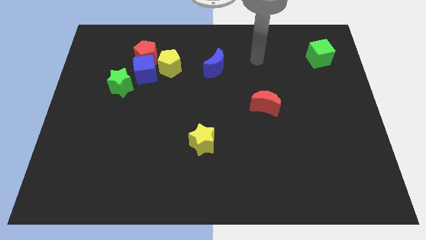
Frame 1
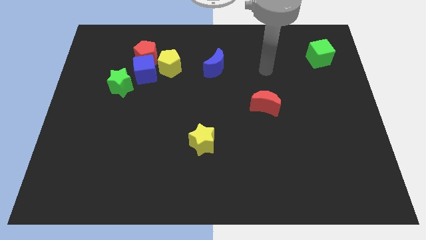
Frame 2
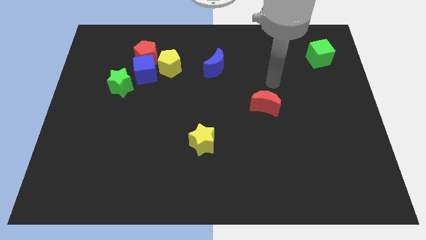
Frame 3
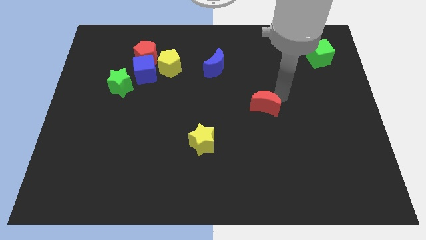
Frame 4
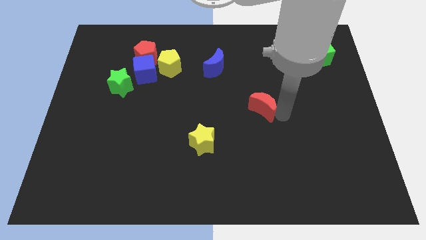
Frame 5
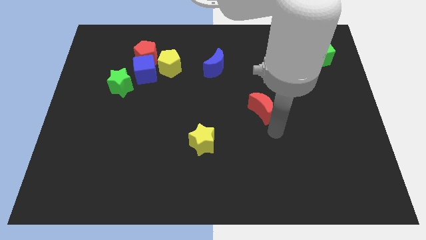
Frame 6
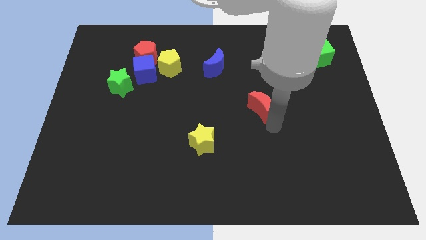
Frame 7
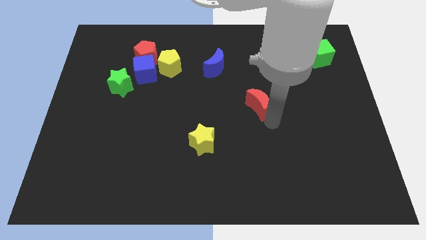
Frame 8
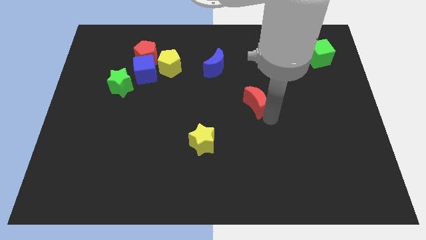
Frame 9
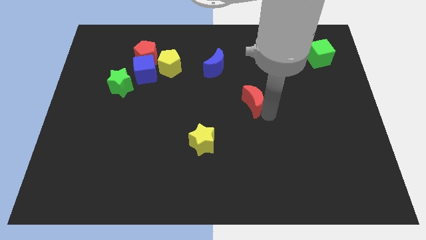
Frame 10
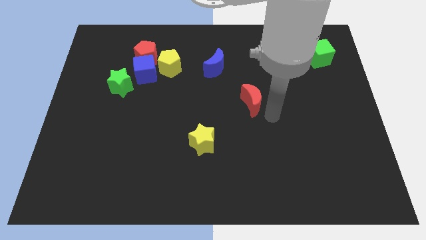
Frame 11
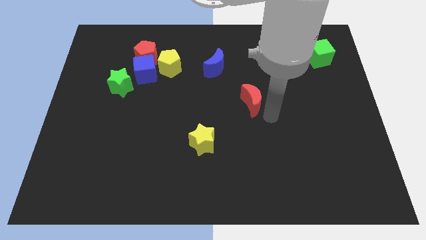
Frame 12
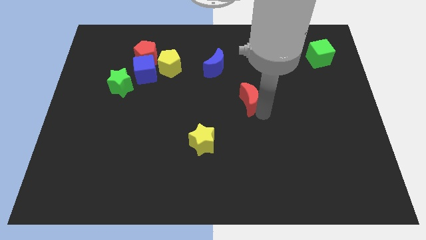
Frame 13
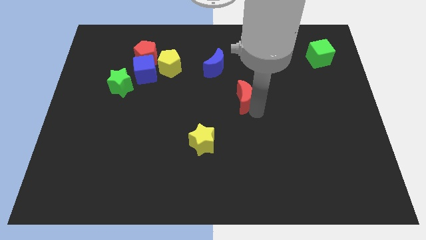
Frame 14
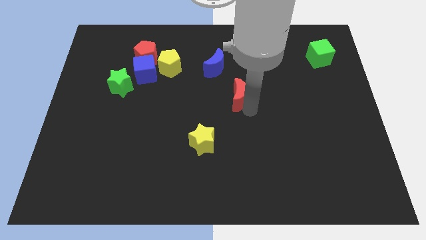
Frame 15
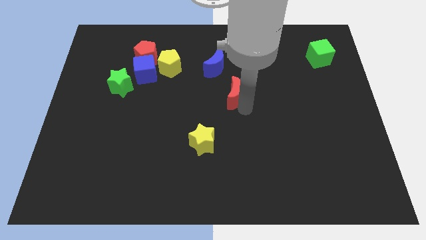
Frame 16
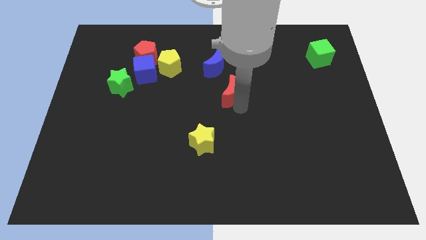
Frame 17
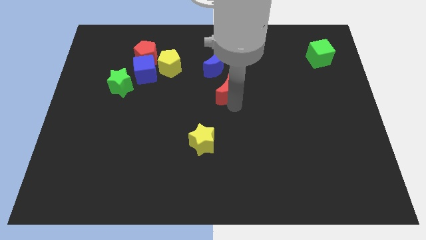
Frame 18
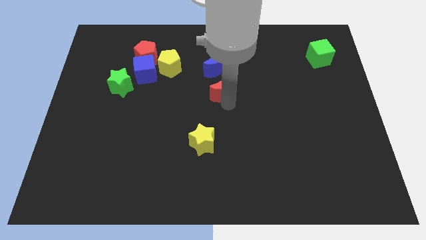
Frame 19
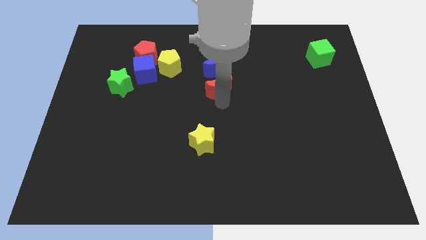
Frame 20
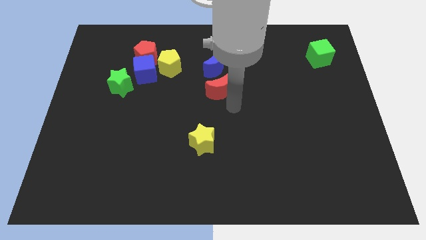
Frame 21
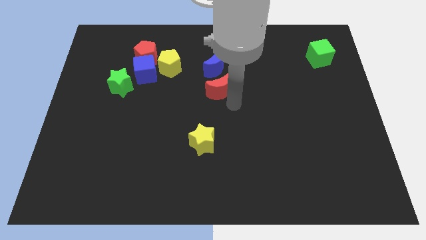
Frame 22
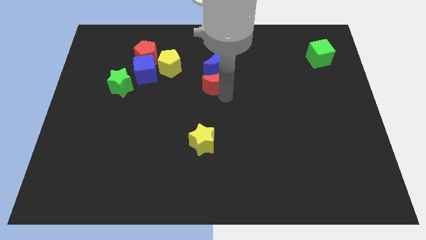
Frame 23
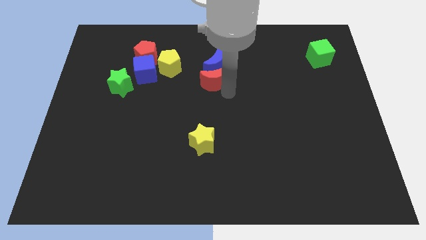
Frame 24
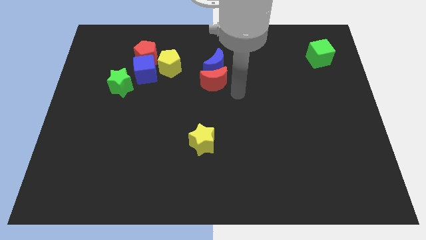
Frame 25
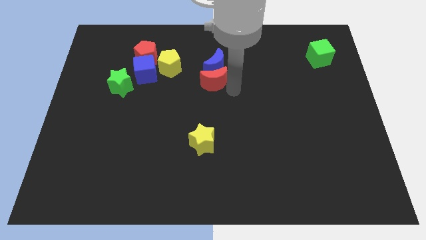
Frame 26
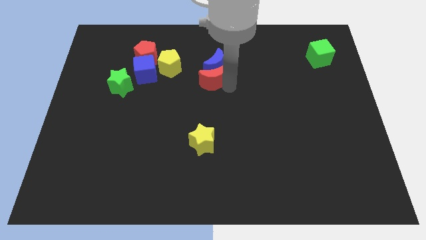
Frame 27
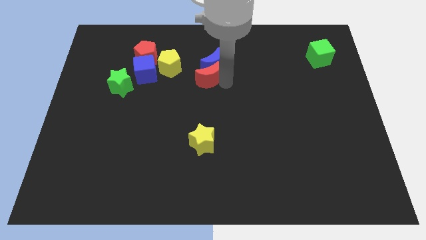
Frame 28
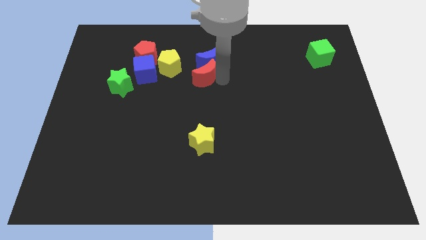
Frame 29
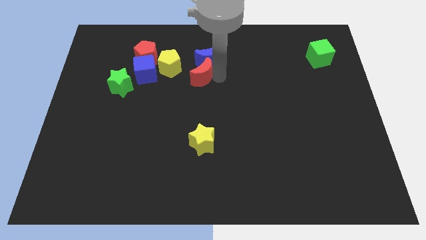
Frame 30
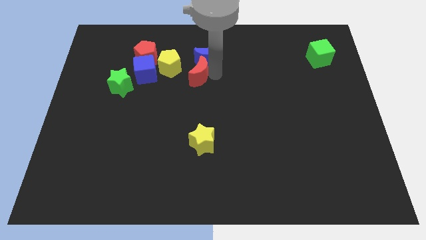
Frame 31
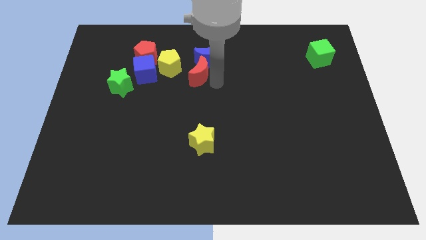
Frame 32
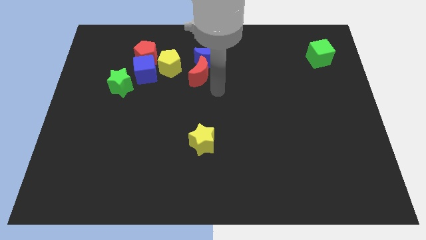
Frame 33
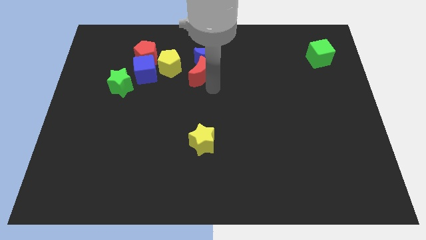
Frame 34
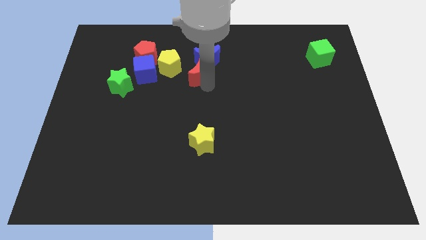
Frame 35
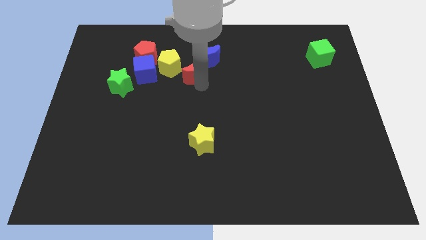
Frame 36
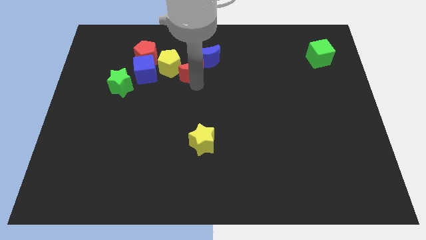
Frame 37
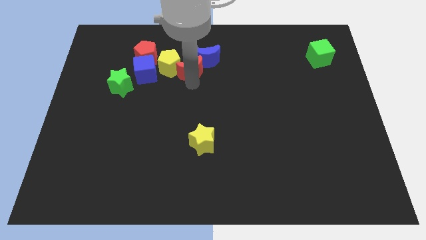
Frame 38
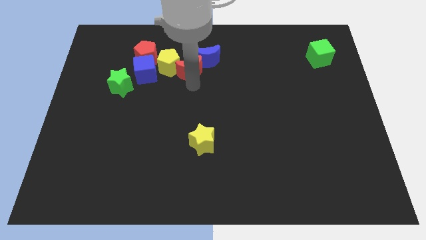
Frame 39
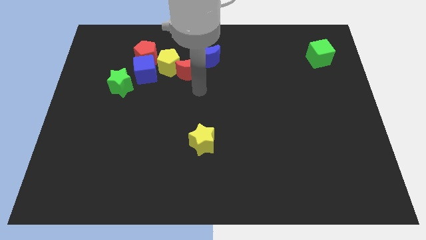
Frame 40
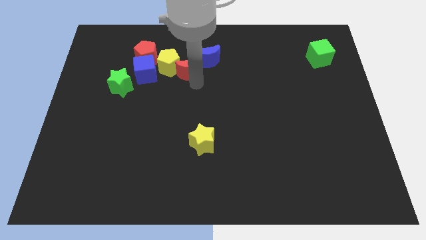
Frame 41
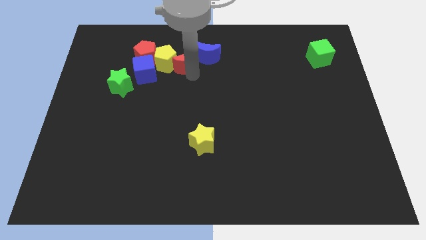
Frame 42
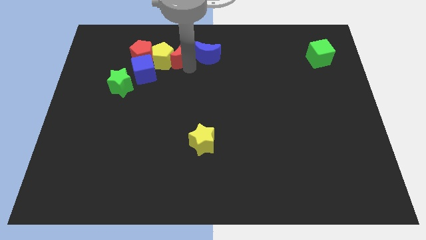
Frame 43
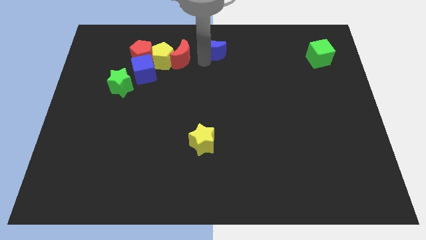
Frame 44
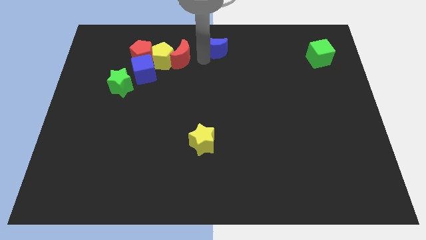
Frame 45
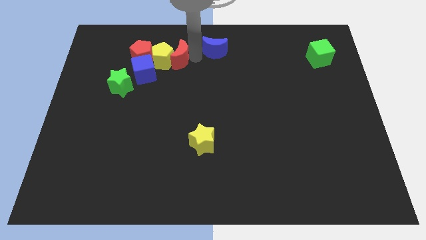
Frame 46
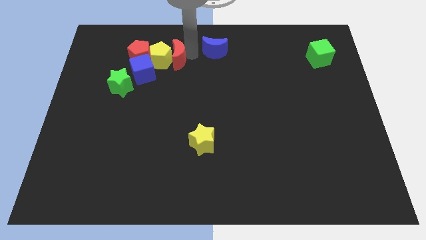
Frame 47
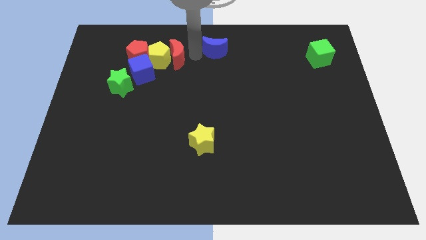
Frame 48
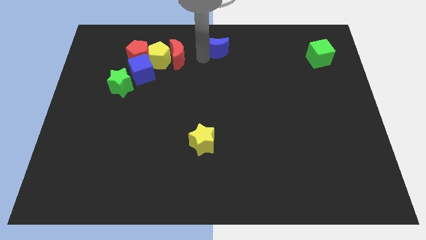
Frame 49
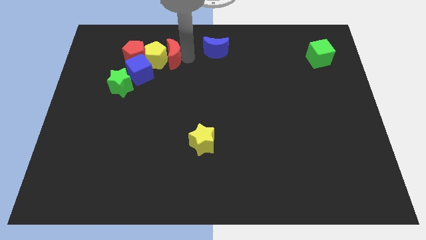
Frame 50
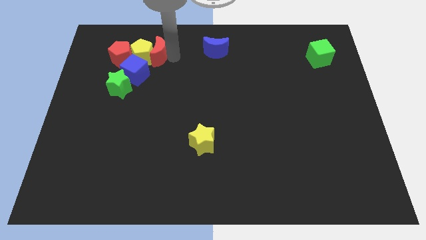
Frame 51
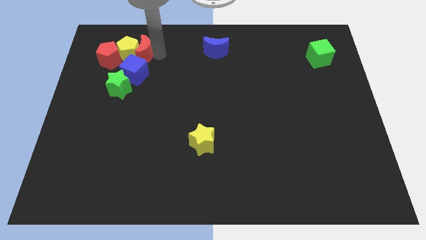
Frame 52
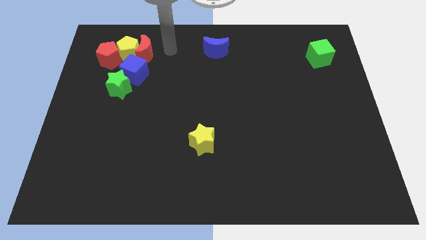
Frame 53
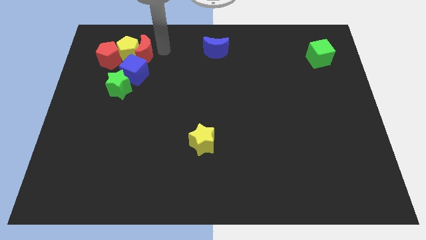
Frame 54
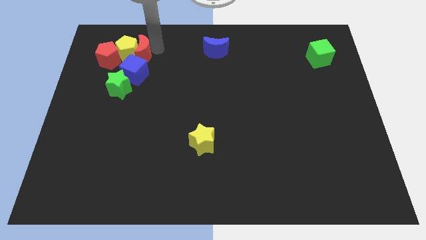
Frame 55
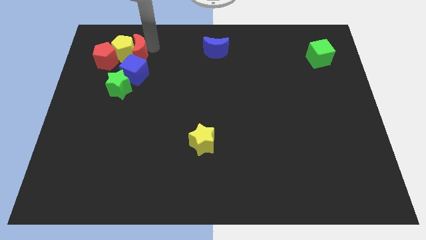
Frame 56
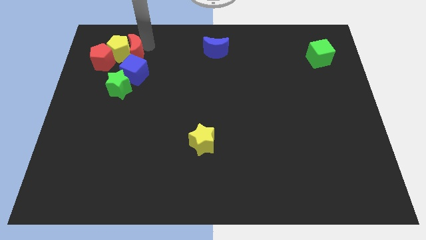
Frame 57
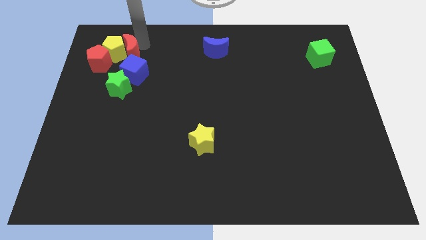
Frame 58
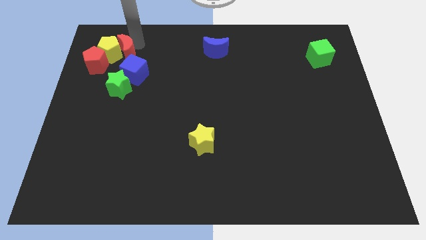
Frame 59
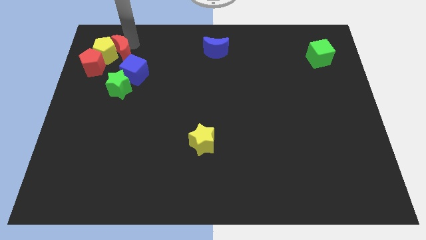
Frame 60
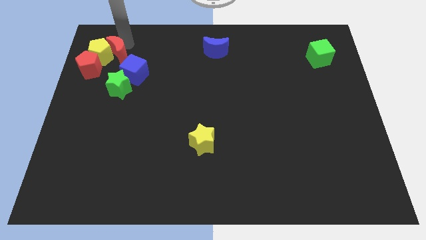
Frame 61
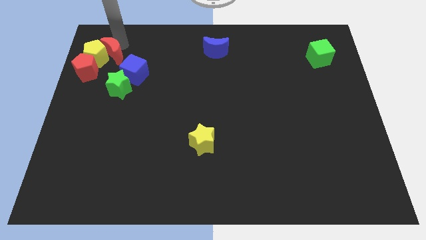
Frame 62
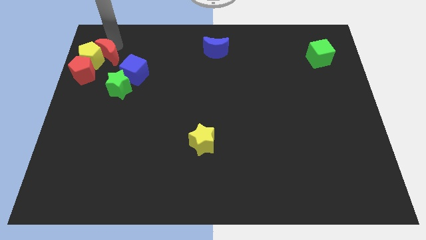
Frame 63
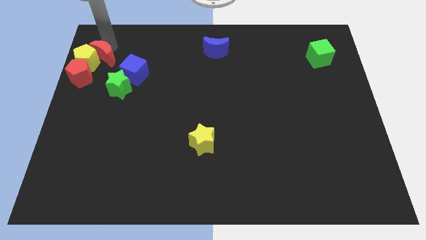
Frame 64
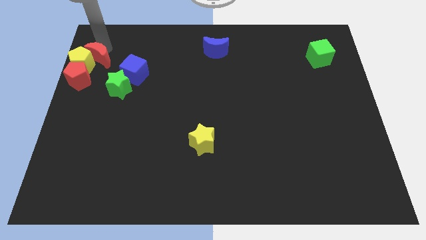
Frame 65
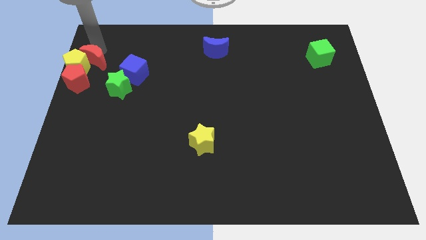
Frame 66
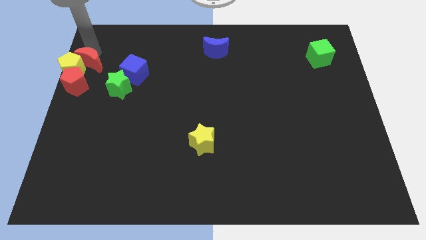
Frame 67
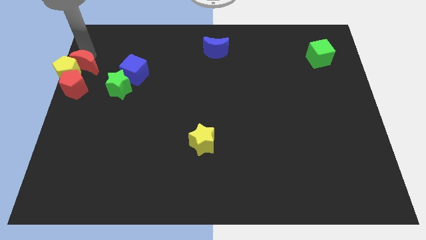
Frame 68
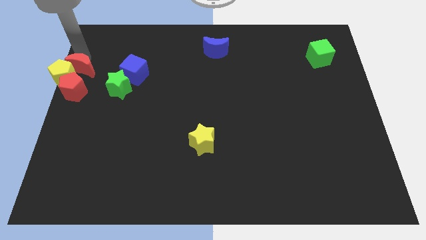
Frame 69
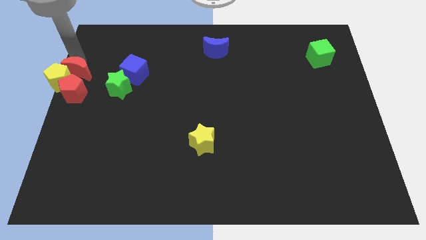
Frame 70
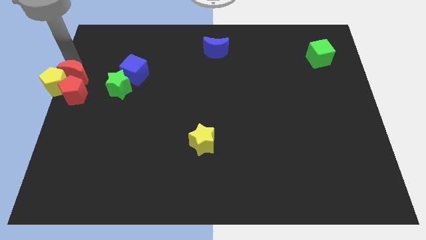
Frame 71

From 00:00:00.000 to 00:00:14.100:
put the red moon close to the red pentagon
